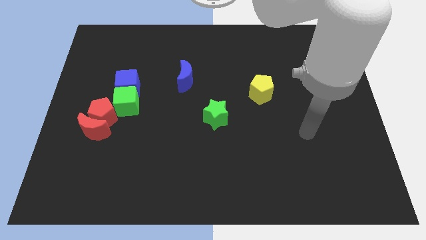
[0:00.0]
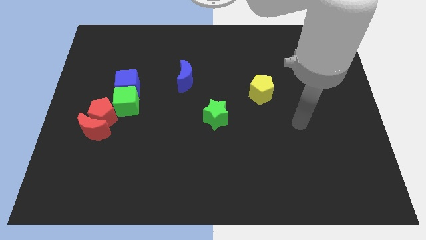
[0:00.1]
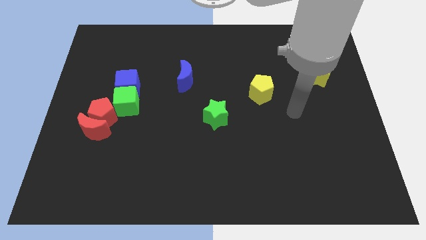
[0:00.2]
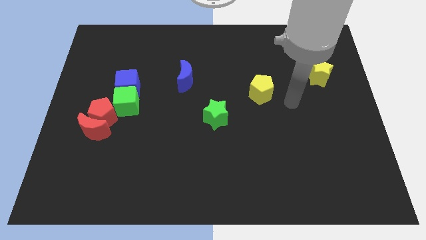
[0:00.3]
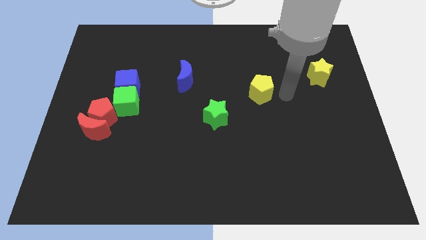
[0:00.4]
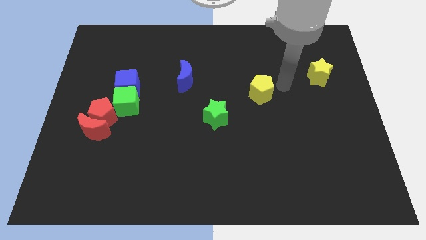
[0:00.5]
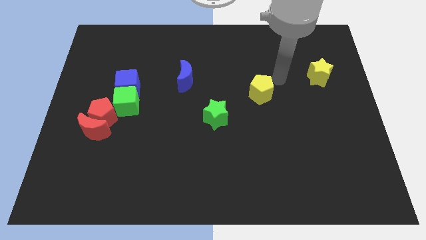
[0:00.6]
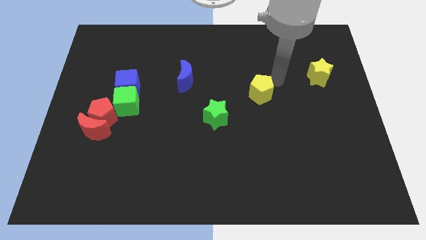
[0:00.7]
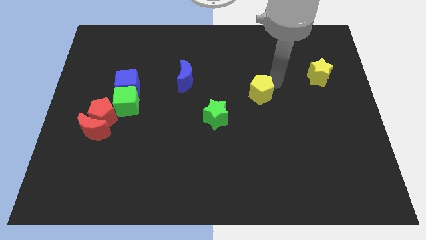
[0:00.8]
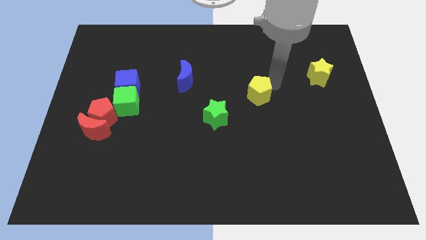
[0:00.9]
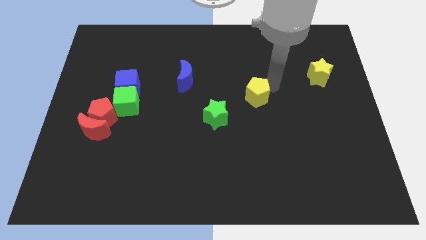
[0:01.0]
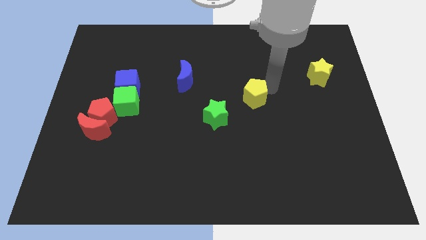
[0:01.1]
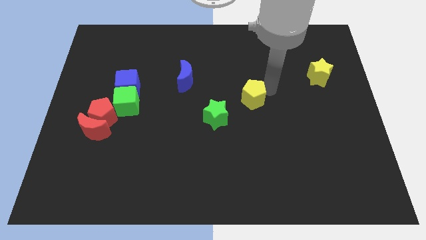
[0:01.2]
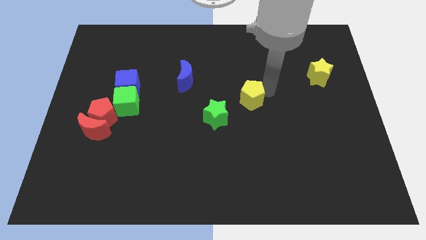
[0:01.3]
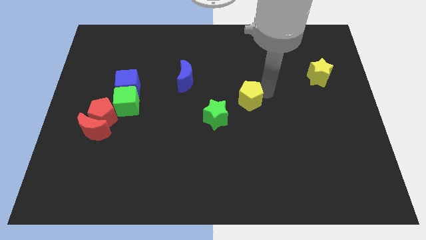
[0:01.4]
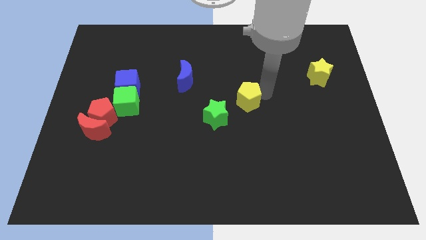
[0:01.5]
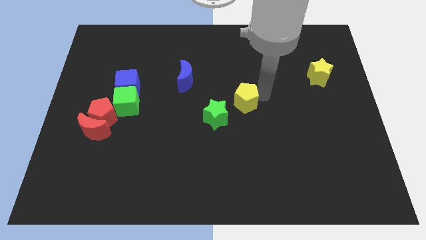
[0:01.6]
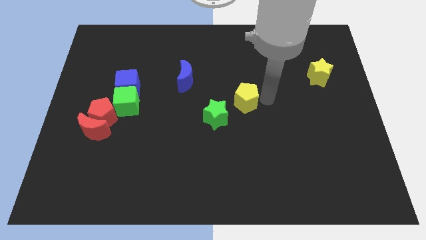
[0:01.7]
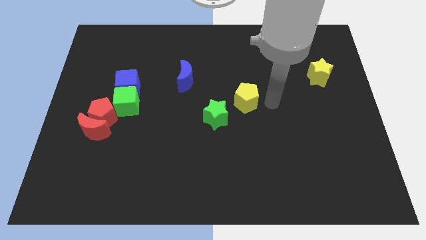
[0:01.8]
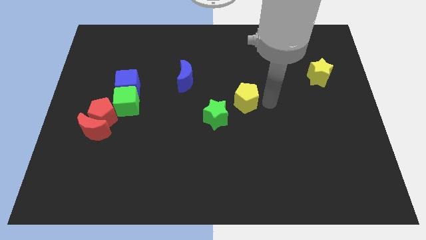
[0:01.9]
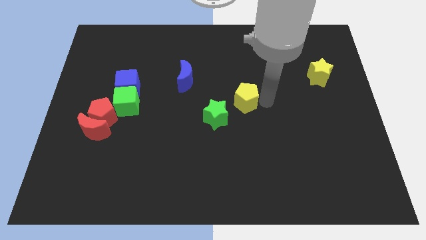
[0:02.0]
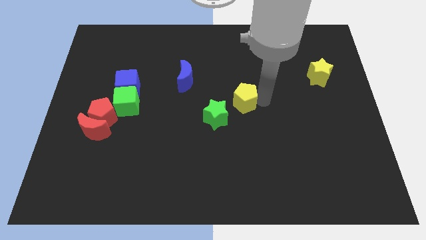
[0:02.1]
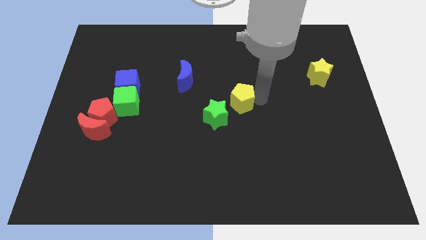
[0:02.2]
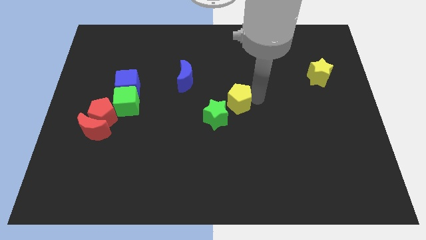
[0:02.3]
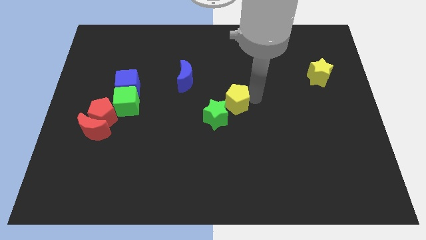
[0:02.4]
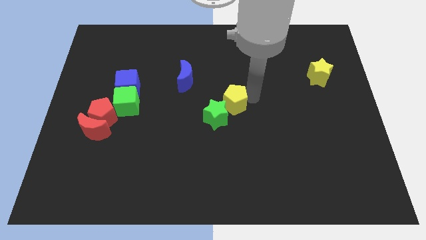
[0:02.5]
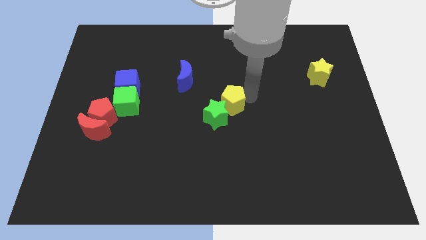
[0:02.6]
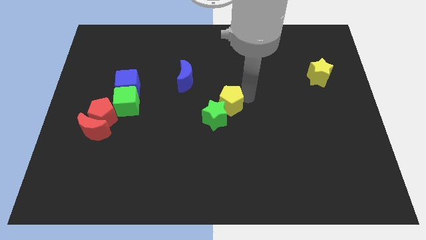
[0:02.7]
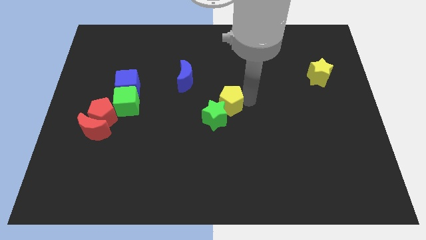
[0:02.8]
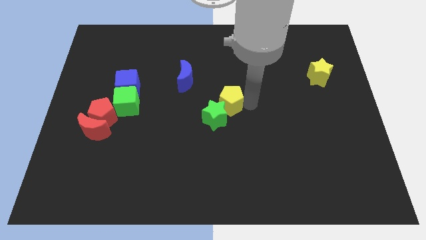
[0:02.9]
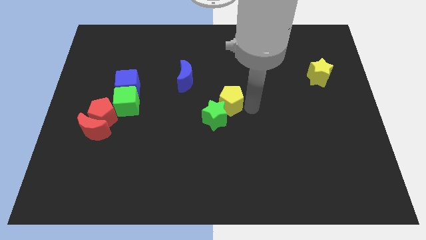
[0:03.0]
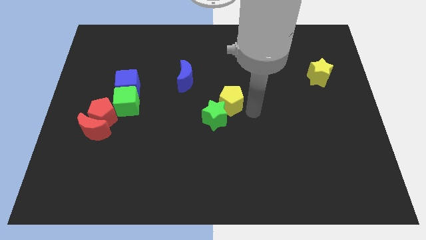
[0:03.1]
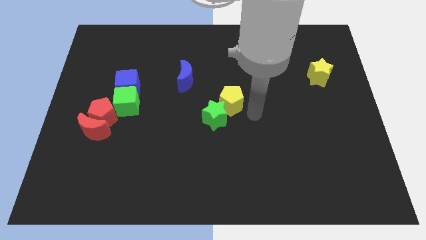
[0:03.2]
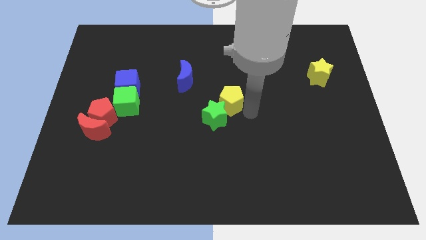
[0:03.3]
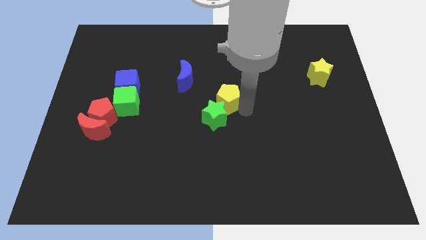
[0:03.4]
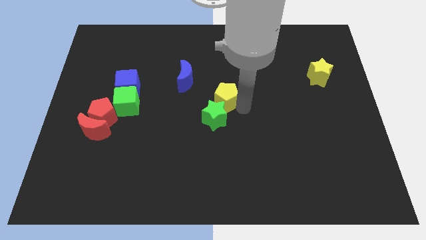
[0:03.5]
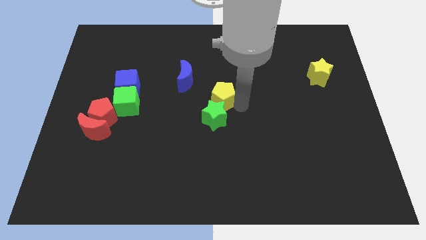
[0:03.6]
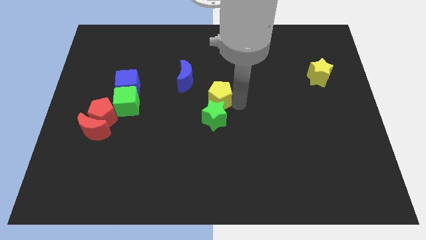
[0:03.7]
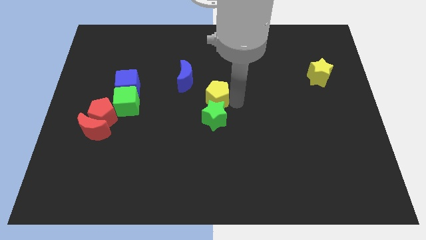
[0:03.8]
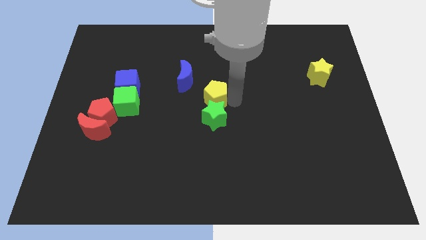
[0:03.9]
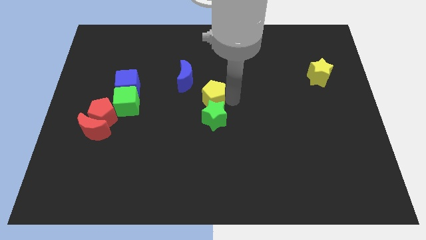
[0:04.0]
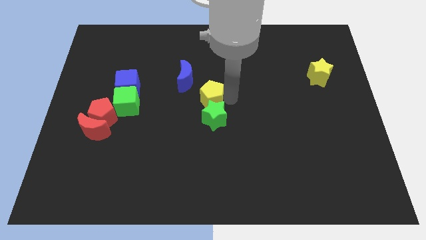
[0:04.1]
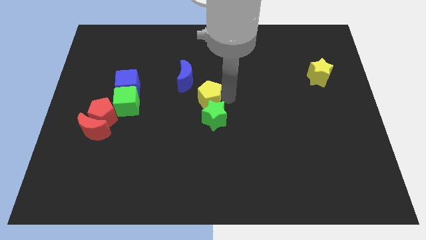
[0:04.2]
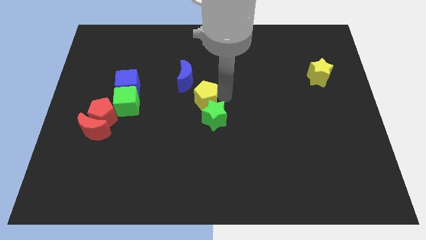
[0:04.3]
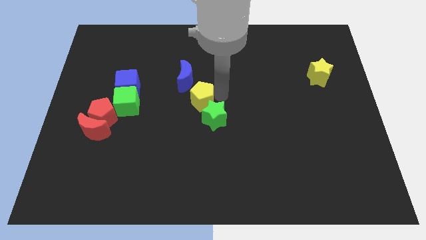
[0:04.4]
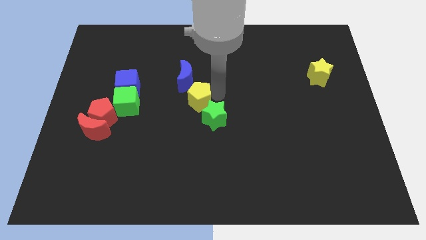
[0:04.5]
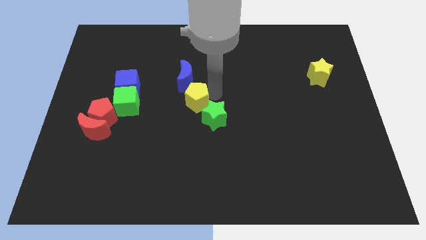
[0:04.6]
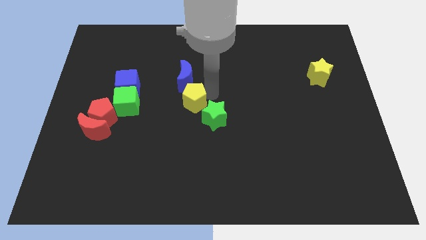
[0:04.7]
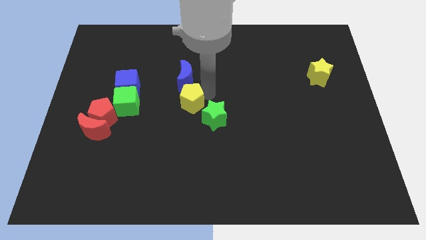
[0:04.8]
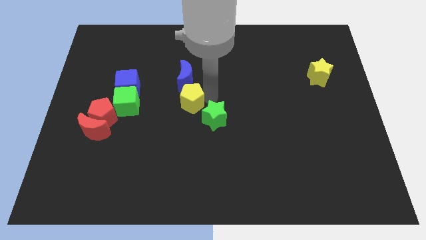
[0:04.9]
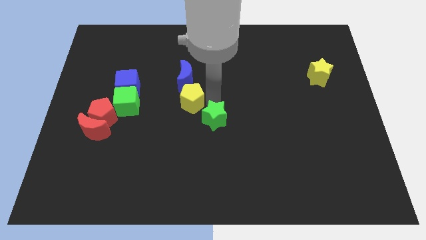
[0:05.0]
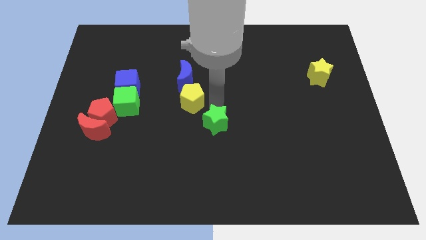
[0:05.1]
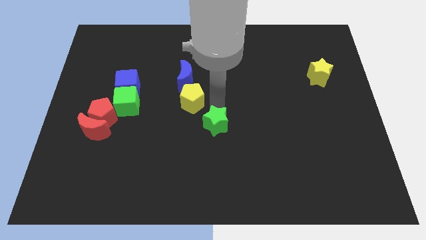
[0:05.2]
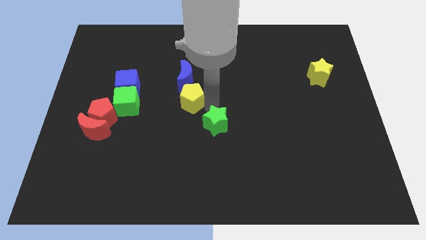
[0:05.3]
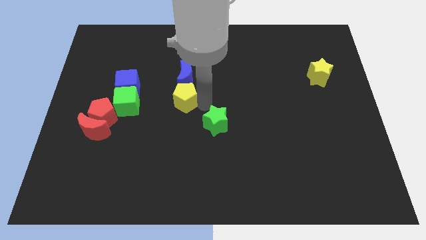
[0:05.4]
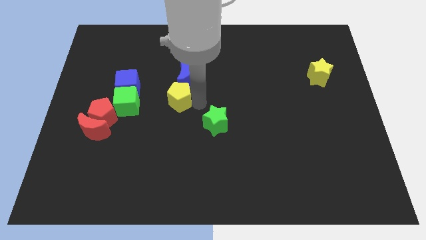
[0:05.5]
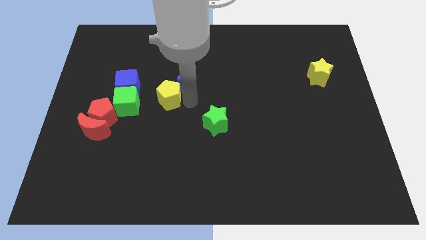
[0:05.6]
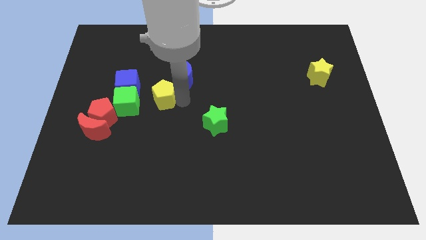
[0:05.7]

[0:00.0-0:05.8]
push the yellow pentagon to the top right of the green cube

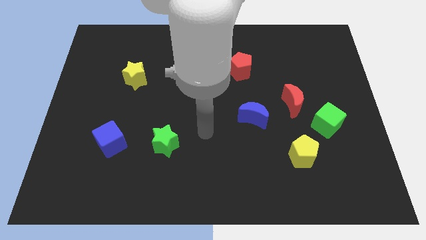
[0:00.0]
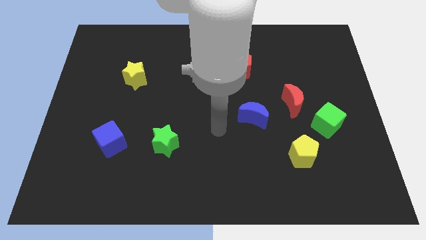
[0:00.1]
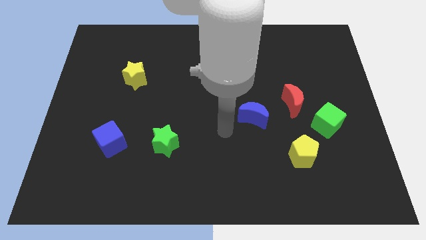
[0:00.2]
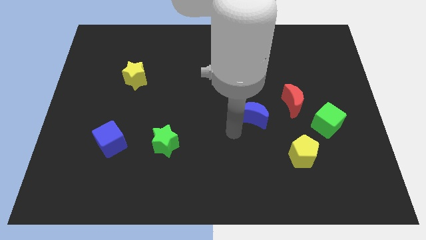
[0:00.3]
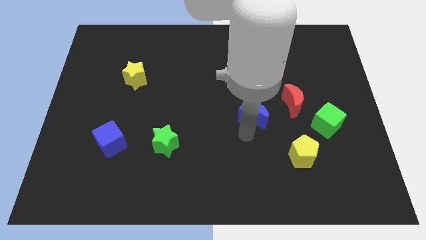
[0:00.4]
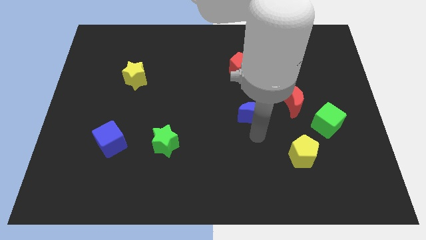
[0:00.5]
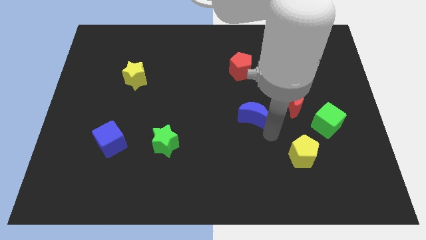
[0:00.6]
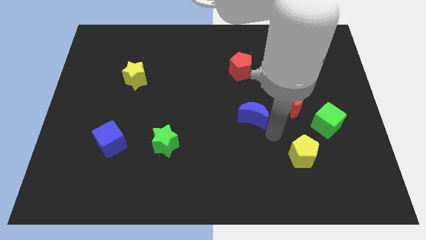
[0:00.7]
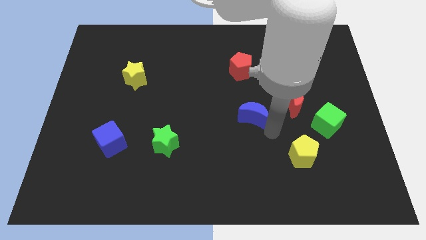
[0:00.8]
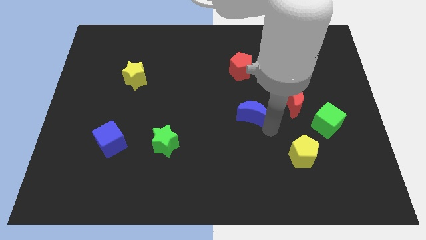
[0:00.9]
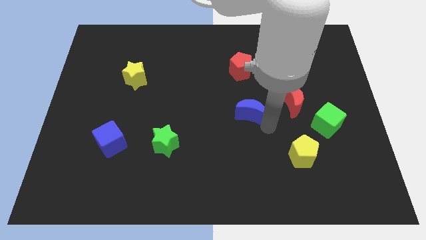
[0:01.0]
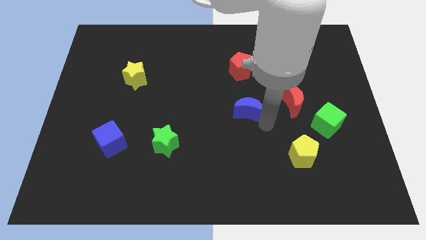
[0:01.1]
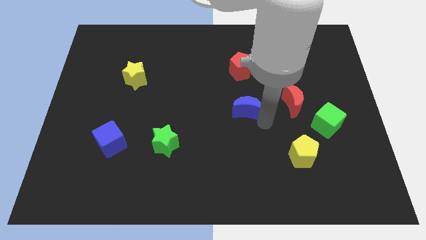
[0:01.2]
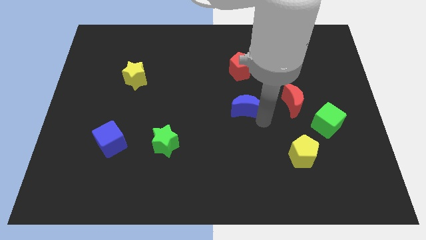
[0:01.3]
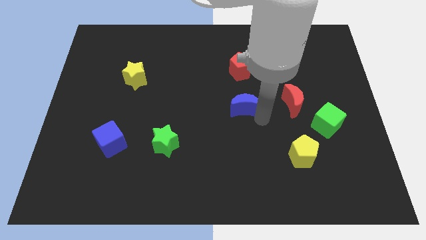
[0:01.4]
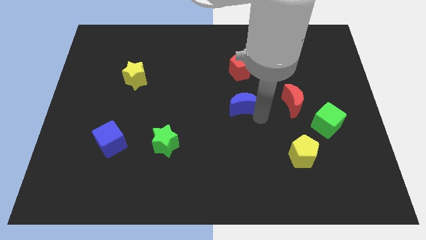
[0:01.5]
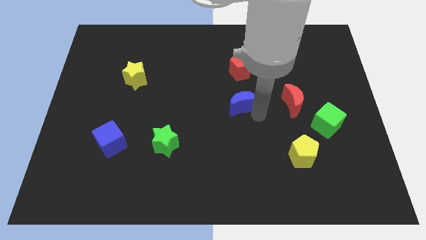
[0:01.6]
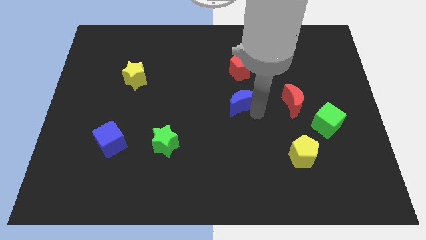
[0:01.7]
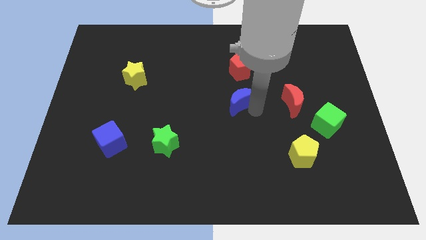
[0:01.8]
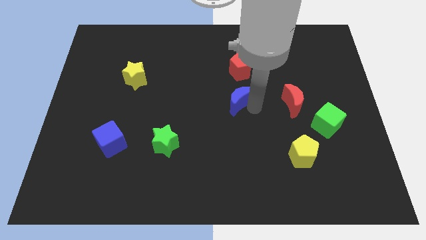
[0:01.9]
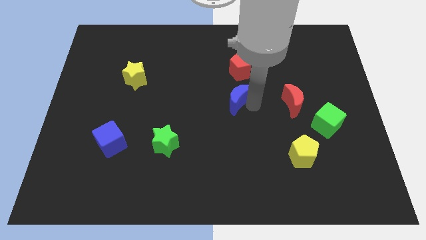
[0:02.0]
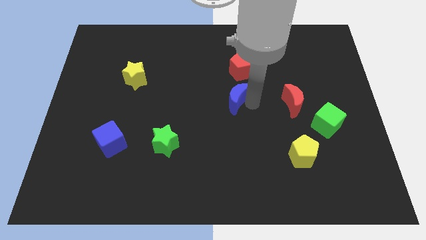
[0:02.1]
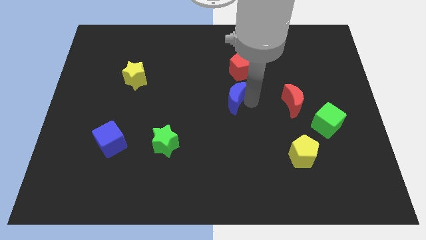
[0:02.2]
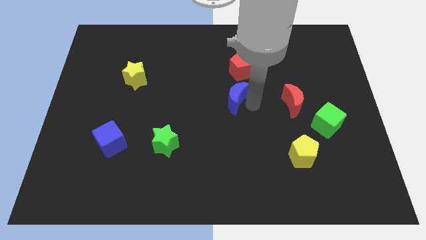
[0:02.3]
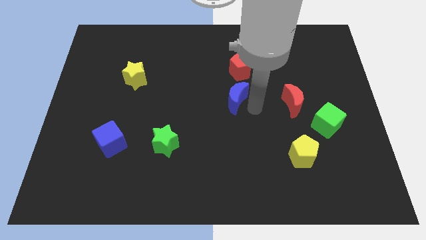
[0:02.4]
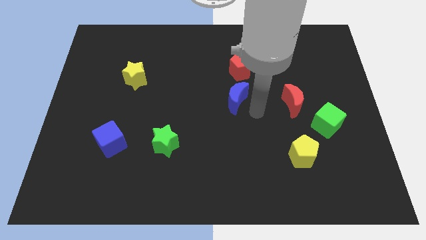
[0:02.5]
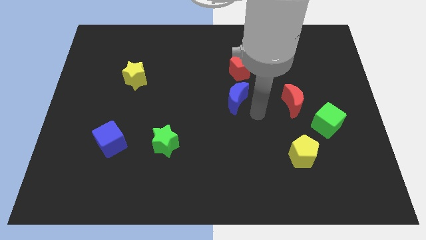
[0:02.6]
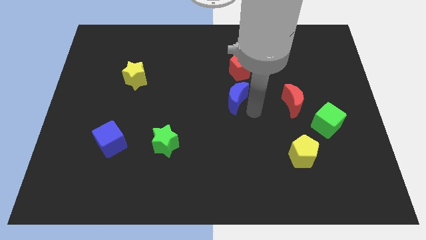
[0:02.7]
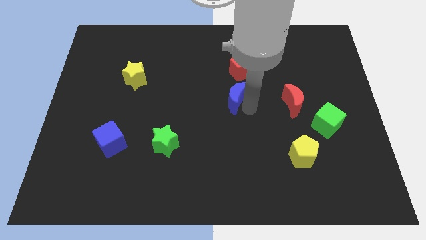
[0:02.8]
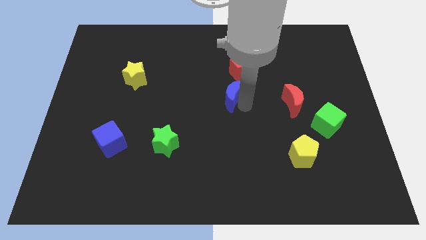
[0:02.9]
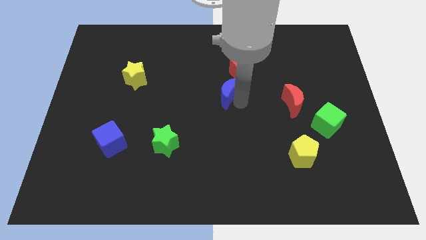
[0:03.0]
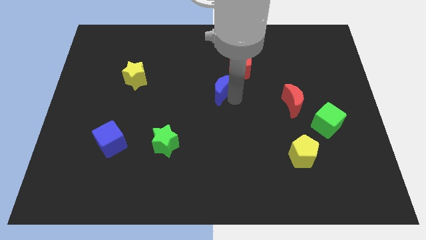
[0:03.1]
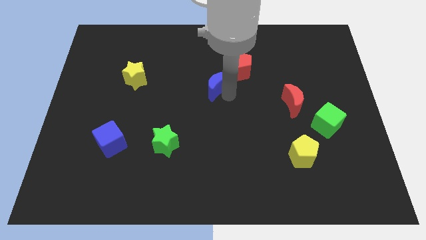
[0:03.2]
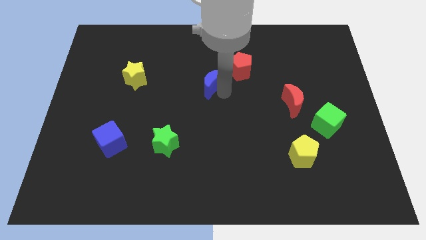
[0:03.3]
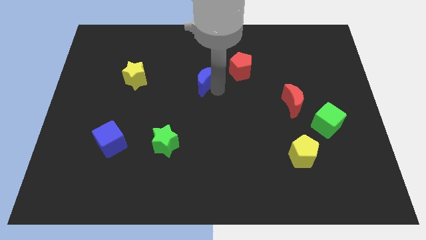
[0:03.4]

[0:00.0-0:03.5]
push the blue moon to the left side of the red pentagon
